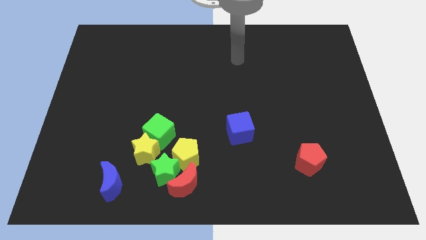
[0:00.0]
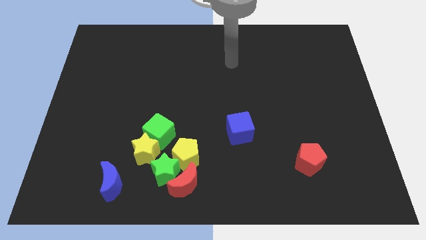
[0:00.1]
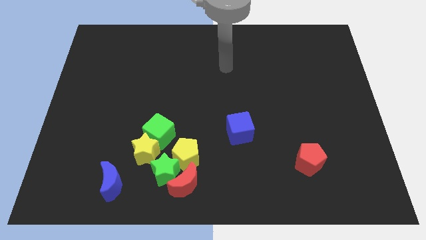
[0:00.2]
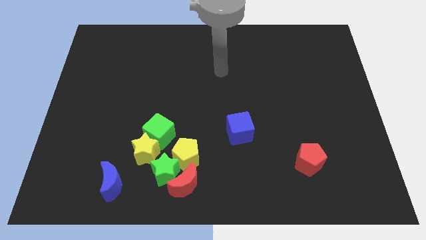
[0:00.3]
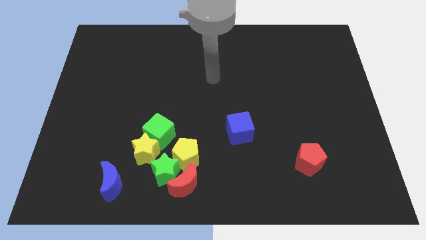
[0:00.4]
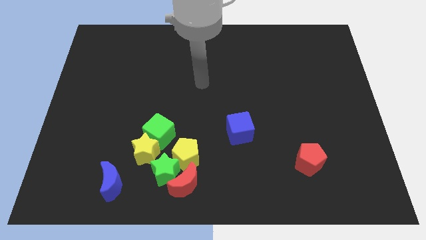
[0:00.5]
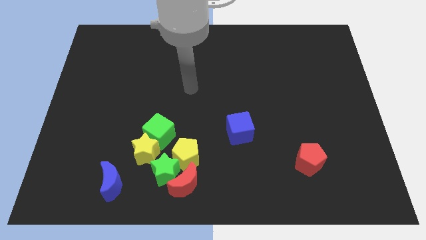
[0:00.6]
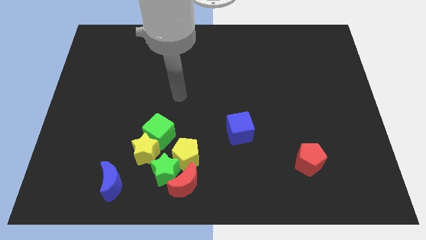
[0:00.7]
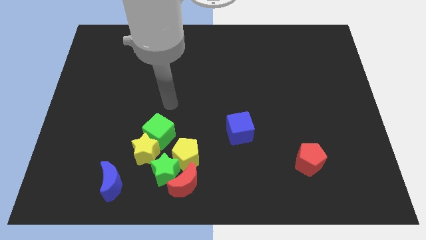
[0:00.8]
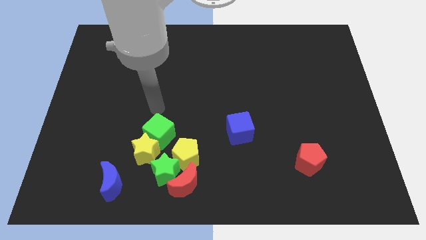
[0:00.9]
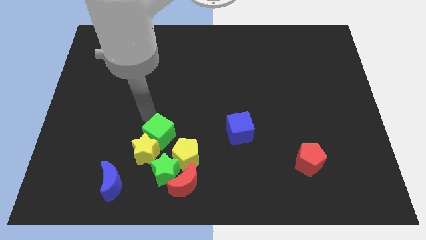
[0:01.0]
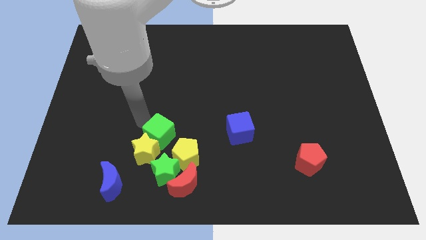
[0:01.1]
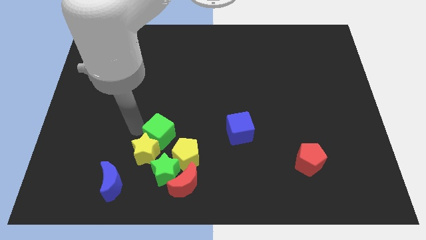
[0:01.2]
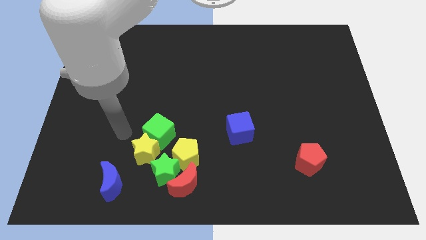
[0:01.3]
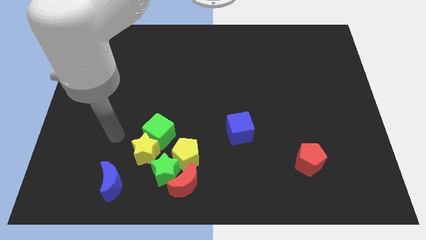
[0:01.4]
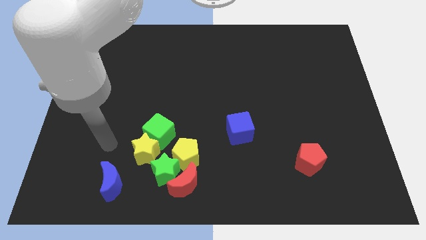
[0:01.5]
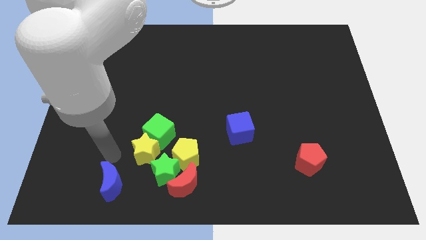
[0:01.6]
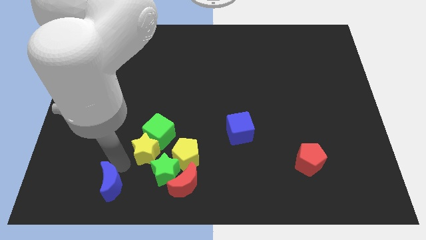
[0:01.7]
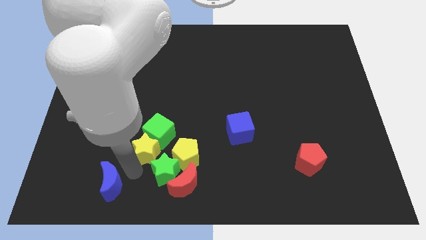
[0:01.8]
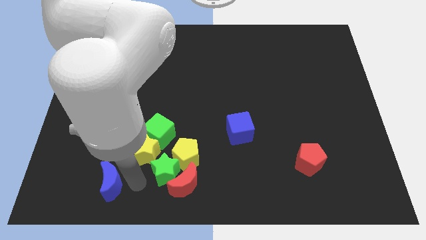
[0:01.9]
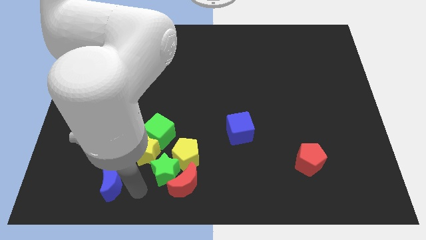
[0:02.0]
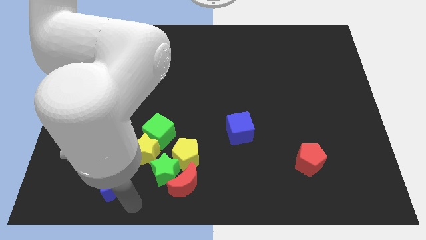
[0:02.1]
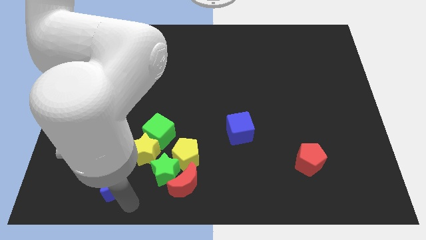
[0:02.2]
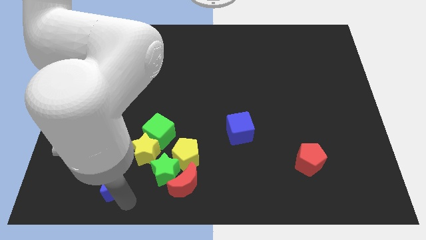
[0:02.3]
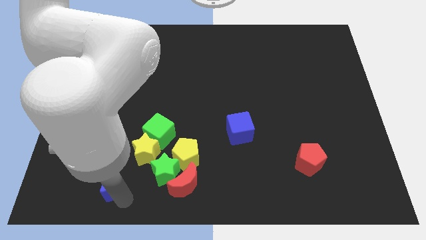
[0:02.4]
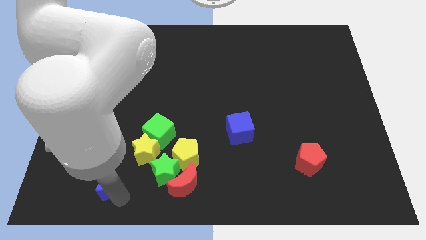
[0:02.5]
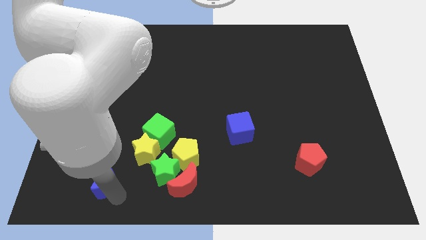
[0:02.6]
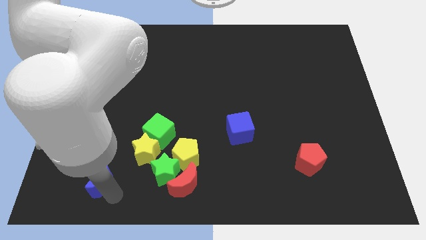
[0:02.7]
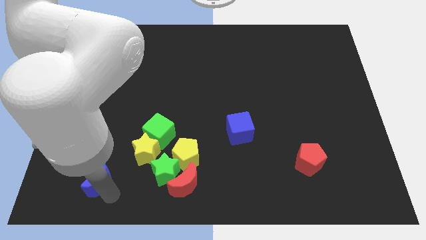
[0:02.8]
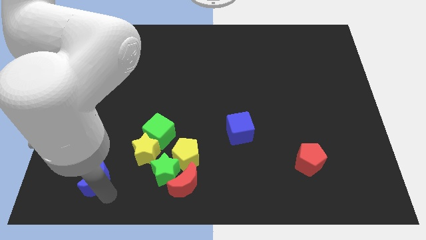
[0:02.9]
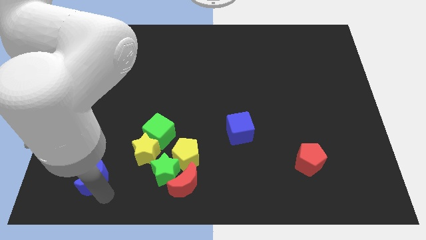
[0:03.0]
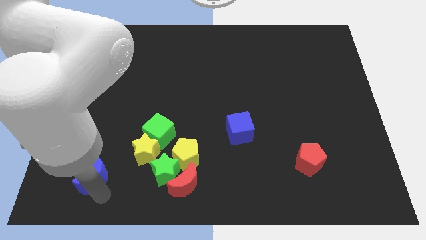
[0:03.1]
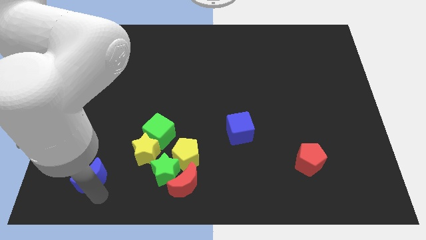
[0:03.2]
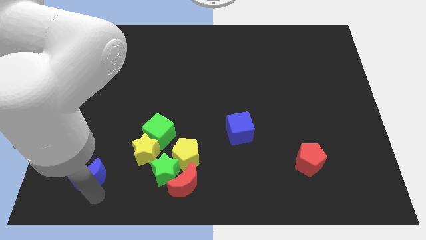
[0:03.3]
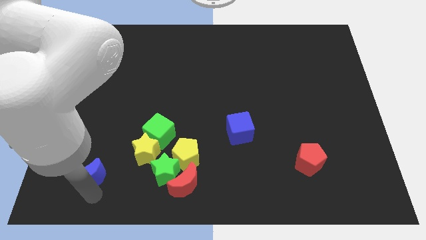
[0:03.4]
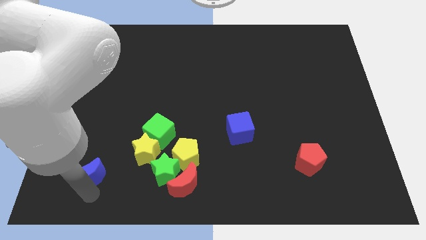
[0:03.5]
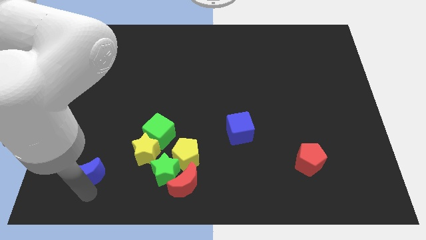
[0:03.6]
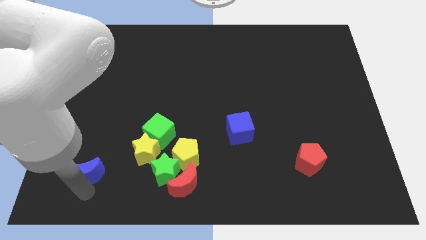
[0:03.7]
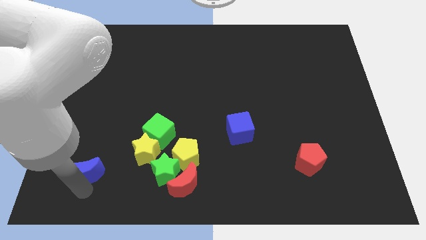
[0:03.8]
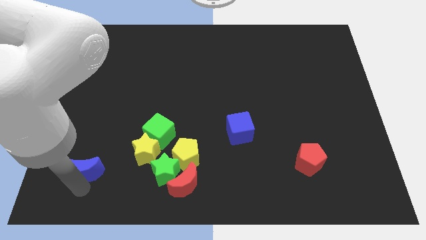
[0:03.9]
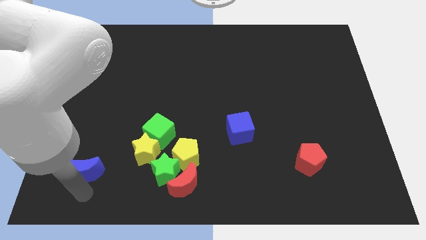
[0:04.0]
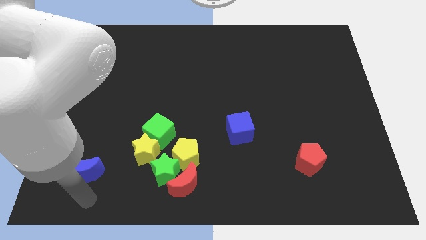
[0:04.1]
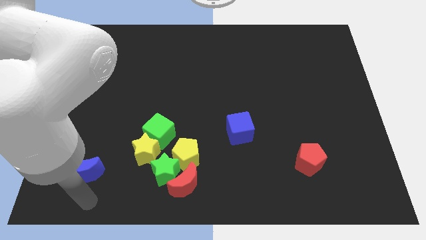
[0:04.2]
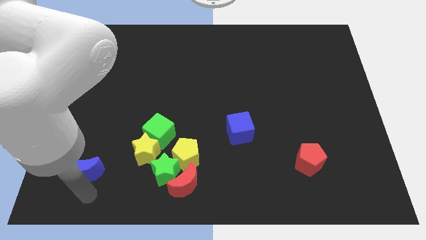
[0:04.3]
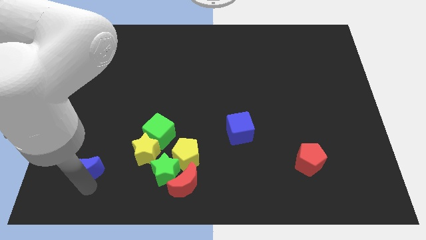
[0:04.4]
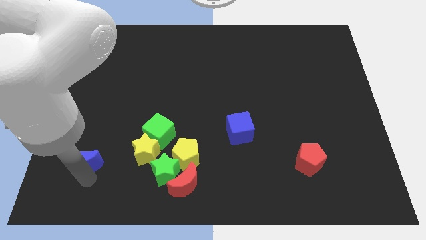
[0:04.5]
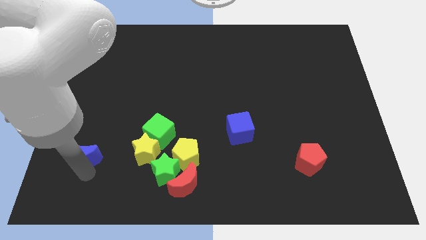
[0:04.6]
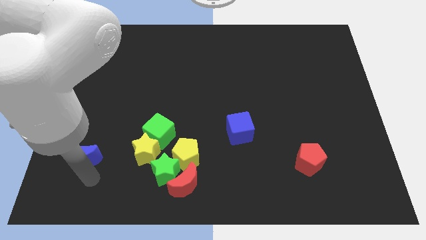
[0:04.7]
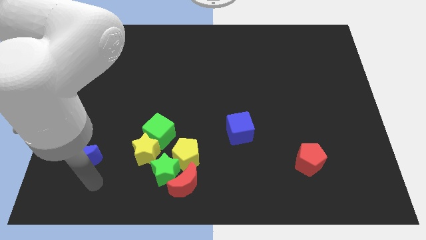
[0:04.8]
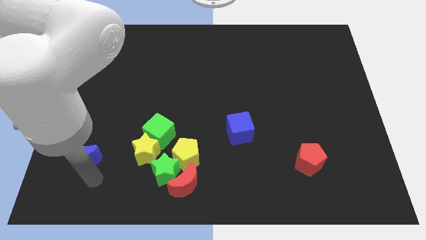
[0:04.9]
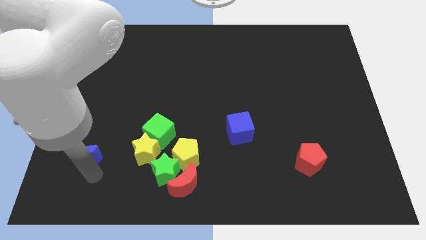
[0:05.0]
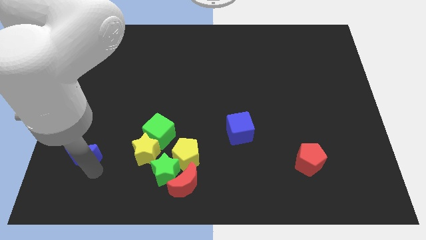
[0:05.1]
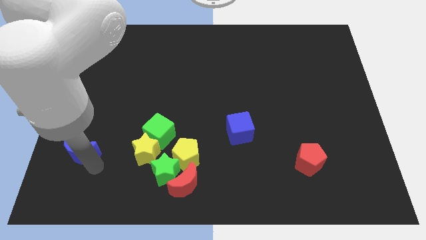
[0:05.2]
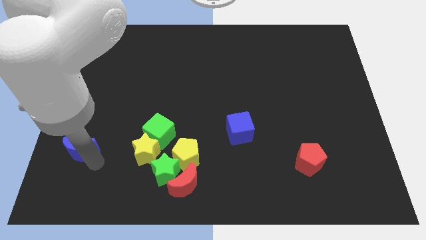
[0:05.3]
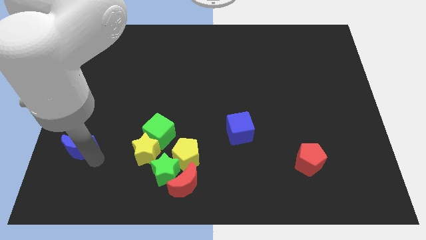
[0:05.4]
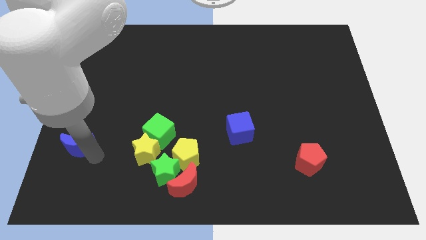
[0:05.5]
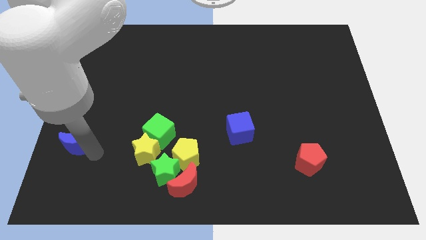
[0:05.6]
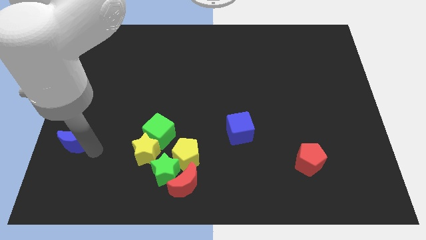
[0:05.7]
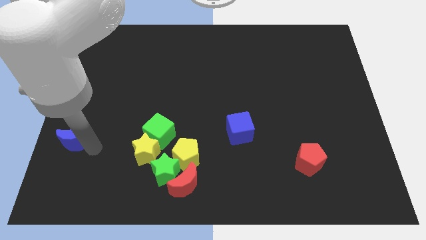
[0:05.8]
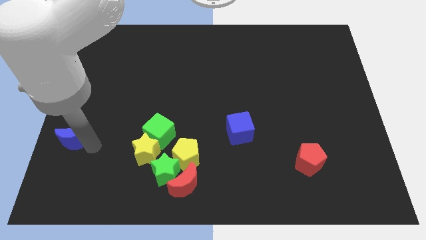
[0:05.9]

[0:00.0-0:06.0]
put the blue moon to the left side

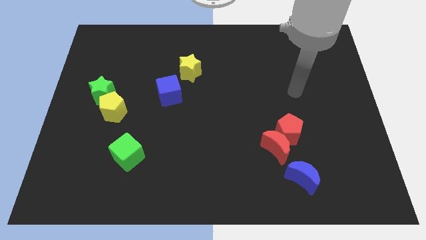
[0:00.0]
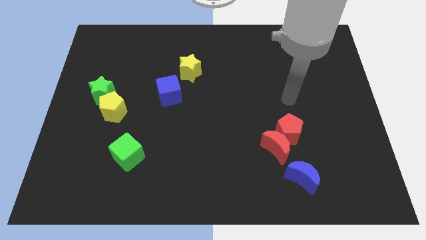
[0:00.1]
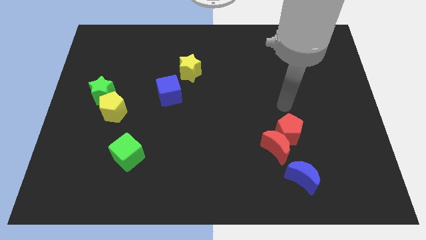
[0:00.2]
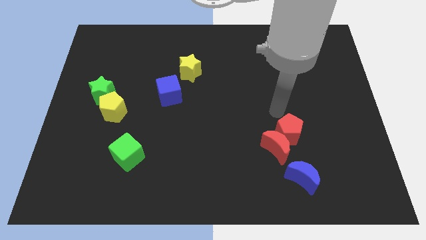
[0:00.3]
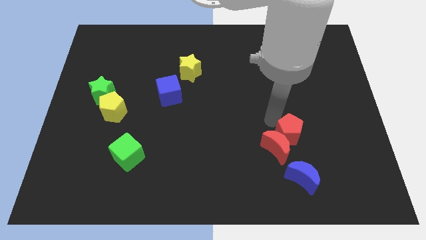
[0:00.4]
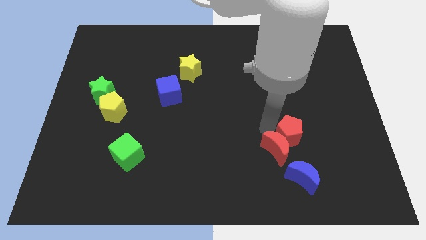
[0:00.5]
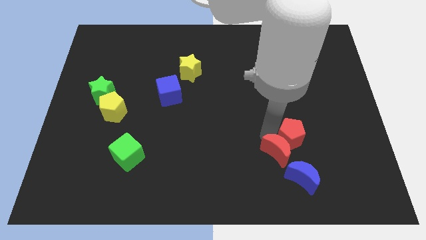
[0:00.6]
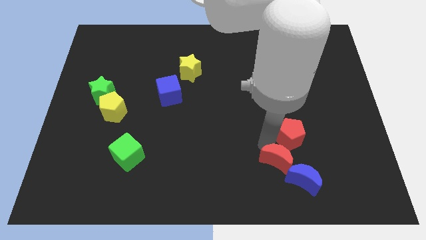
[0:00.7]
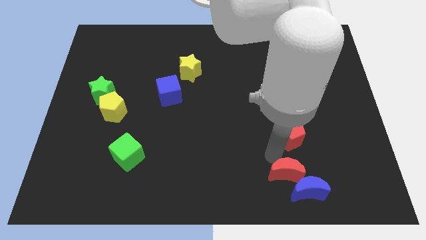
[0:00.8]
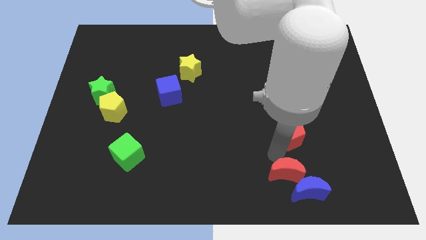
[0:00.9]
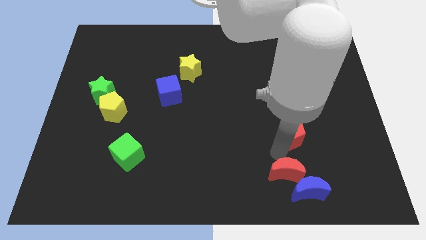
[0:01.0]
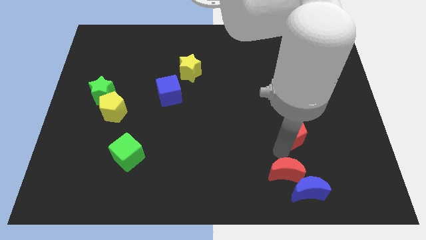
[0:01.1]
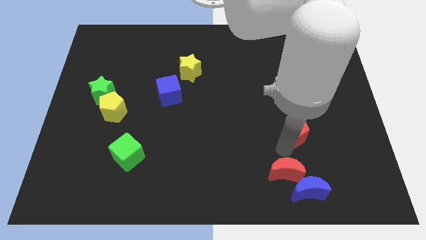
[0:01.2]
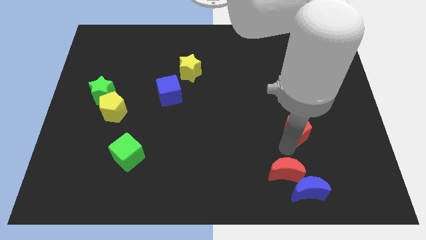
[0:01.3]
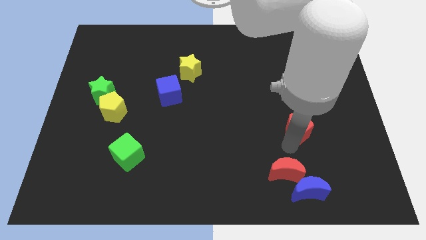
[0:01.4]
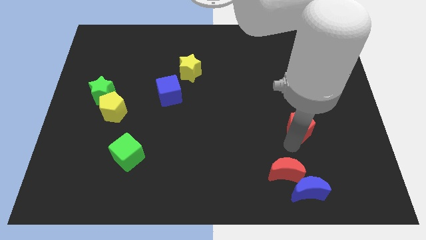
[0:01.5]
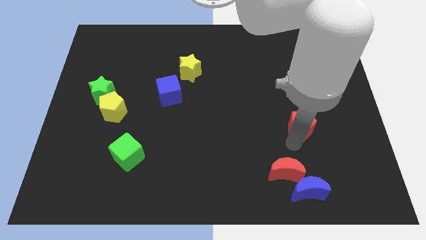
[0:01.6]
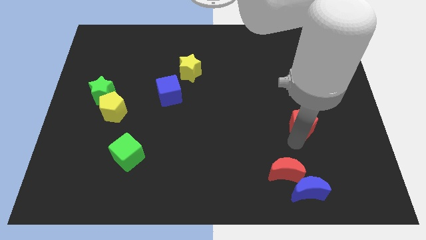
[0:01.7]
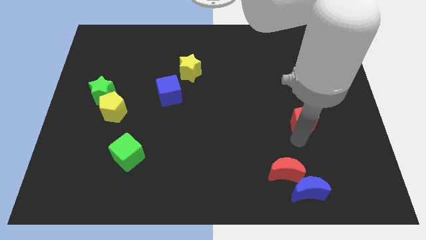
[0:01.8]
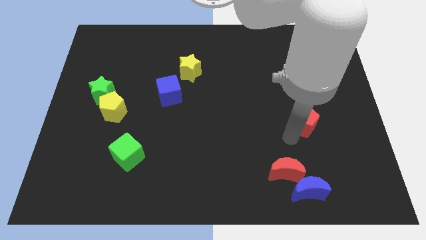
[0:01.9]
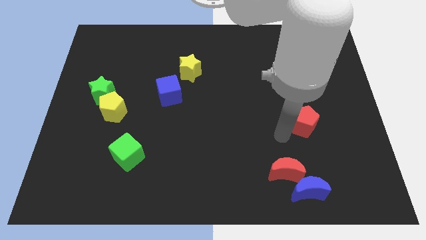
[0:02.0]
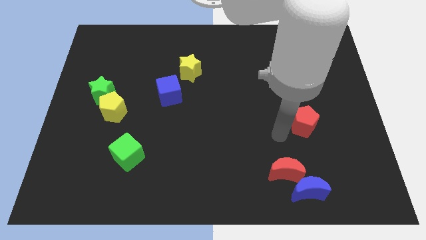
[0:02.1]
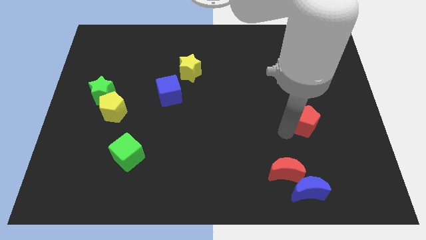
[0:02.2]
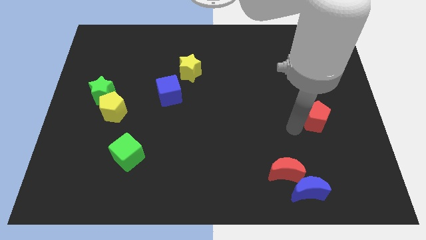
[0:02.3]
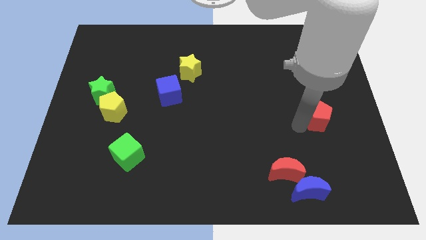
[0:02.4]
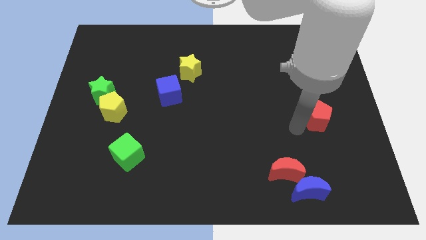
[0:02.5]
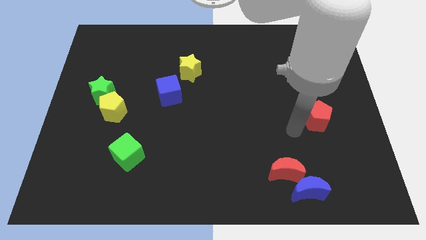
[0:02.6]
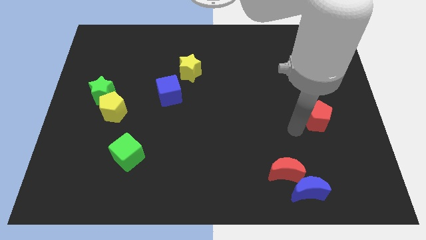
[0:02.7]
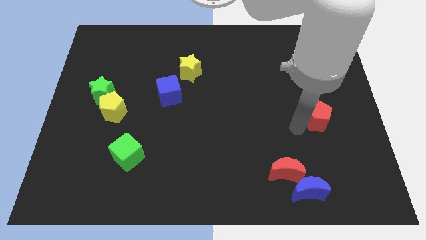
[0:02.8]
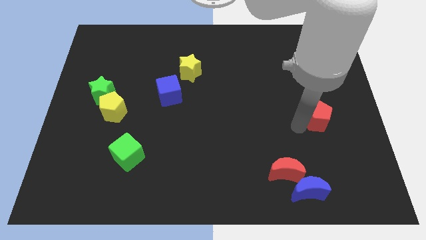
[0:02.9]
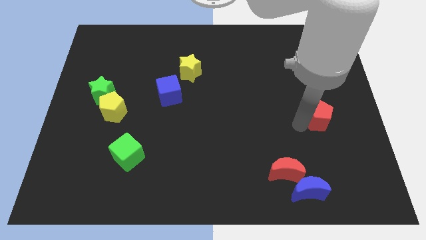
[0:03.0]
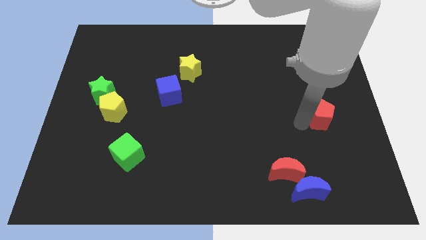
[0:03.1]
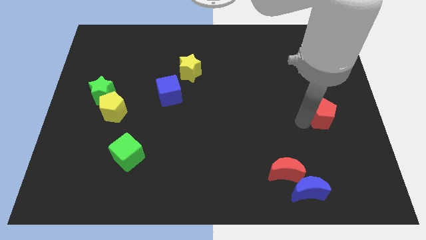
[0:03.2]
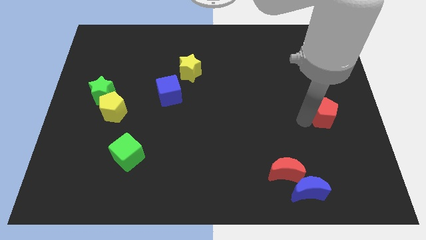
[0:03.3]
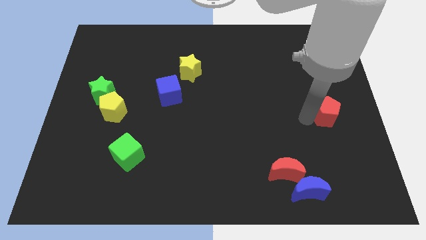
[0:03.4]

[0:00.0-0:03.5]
put the red pentagon to the right side of the board
